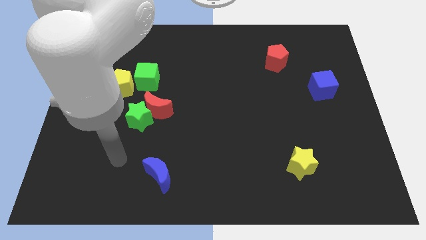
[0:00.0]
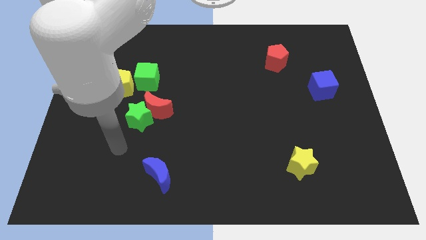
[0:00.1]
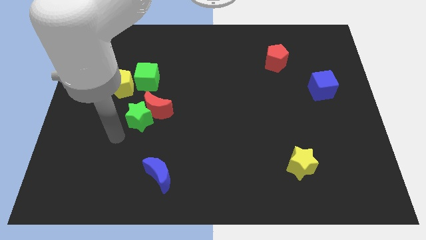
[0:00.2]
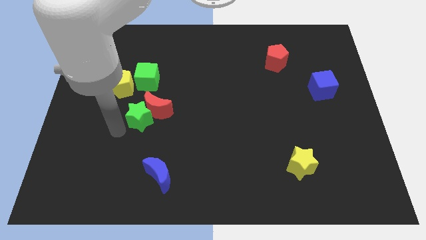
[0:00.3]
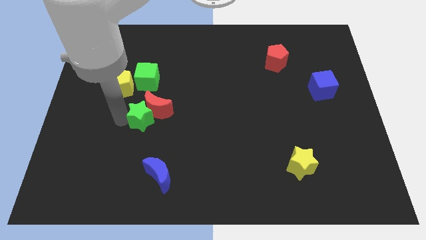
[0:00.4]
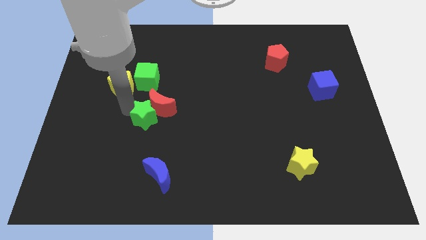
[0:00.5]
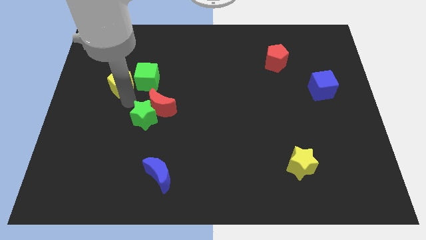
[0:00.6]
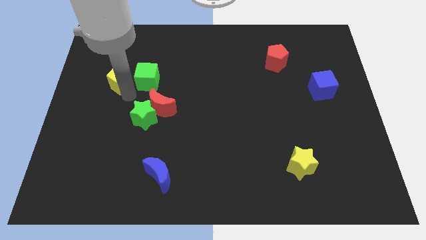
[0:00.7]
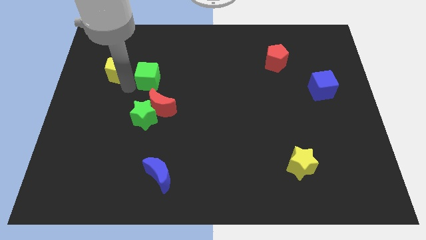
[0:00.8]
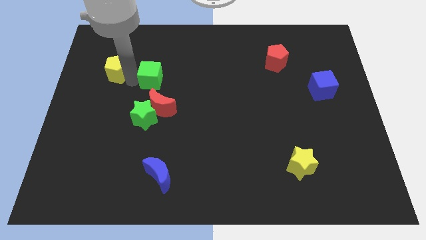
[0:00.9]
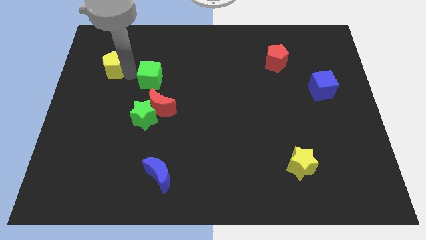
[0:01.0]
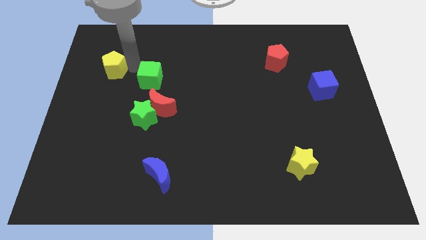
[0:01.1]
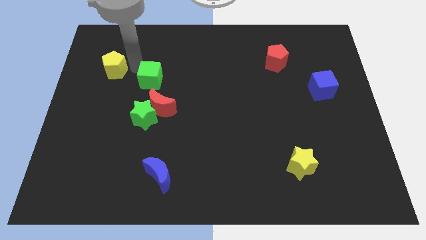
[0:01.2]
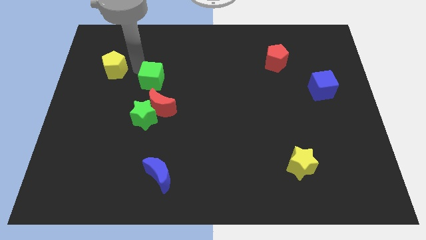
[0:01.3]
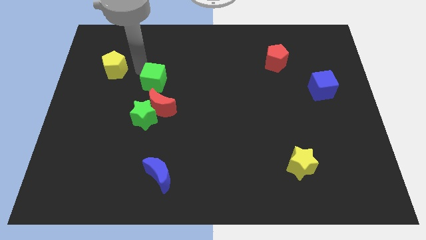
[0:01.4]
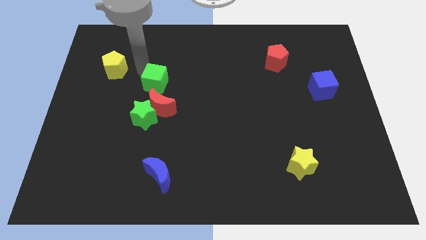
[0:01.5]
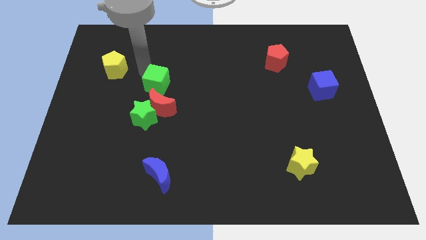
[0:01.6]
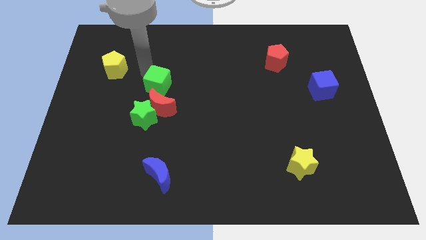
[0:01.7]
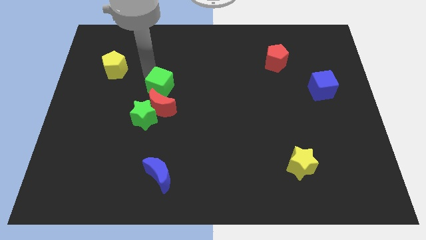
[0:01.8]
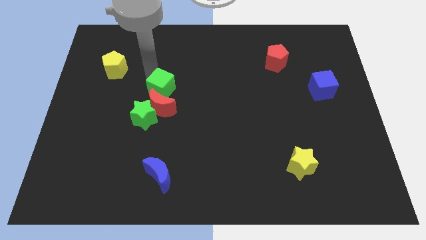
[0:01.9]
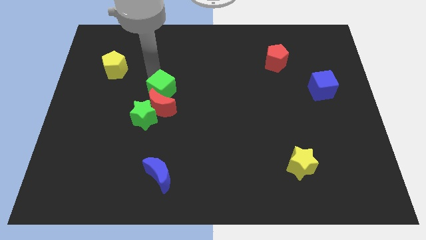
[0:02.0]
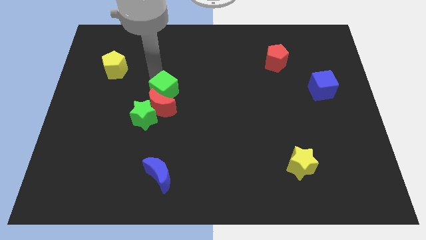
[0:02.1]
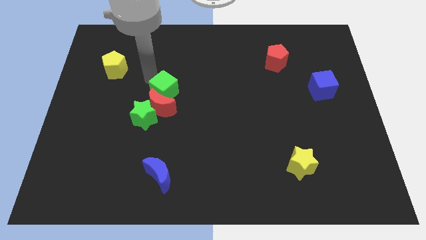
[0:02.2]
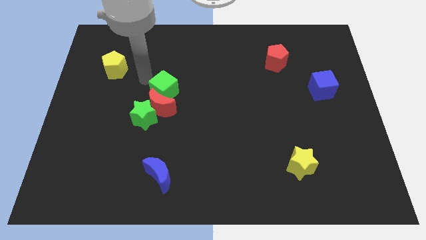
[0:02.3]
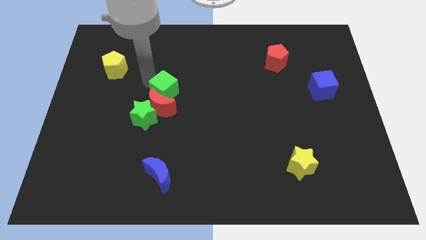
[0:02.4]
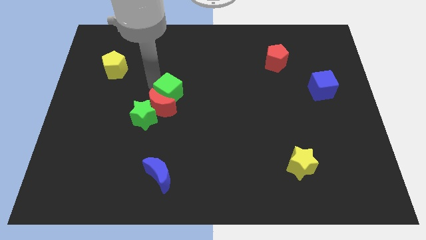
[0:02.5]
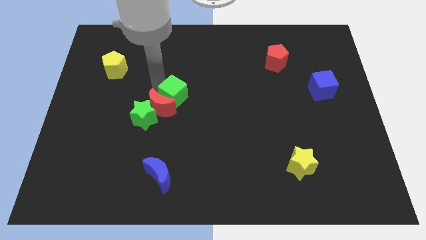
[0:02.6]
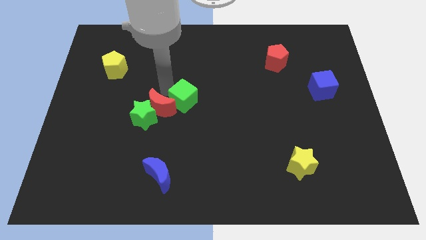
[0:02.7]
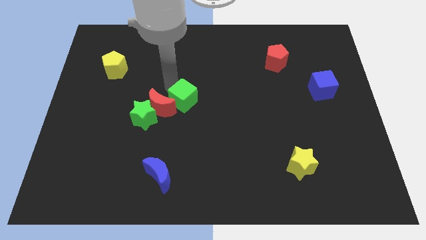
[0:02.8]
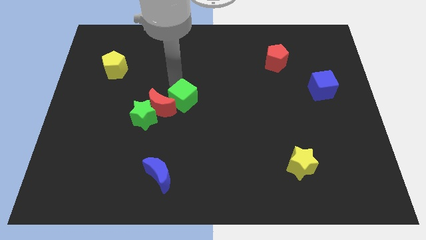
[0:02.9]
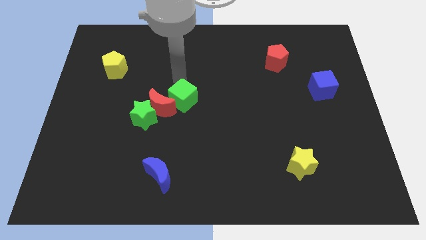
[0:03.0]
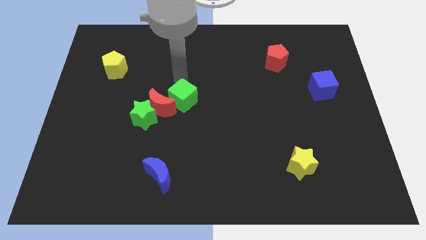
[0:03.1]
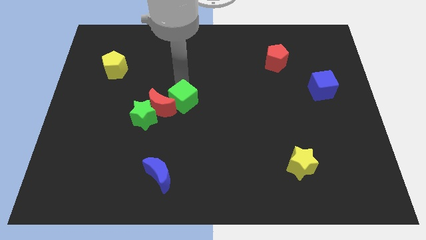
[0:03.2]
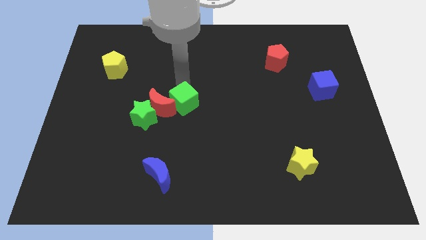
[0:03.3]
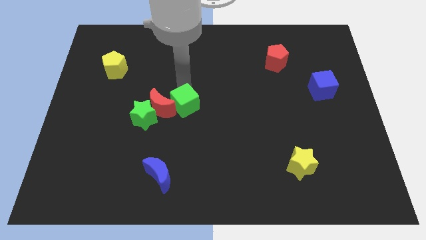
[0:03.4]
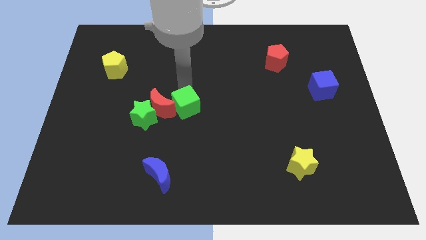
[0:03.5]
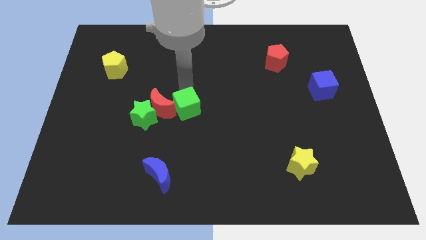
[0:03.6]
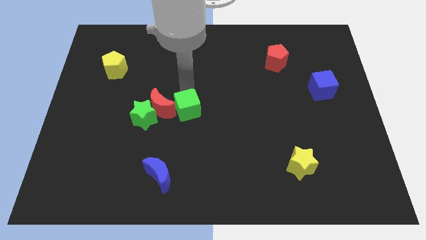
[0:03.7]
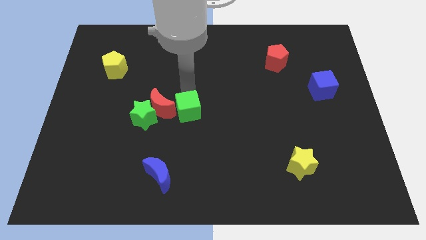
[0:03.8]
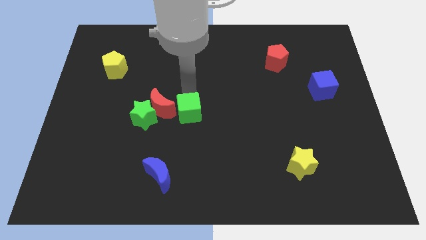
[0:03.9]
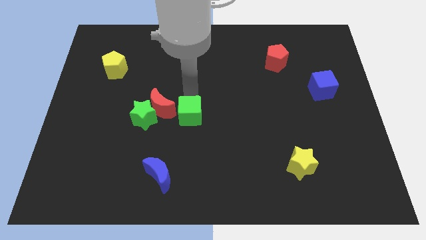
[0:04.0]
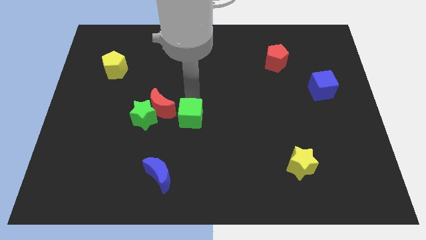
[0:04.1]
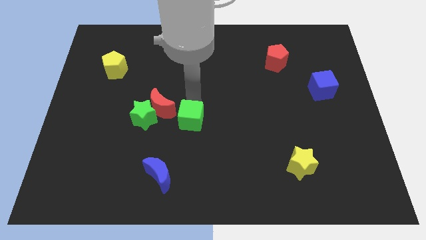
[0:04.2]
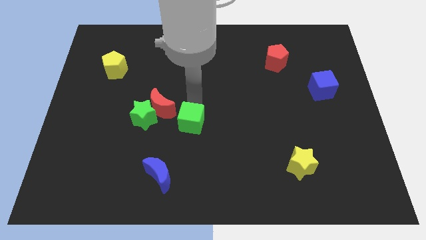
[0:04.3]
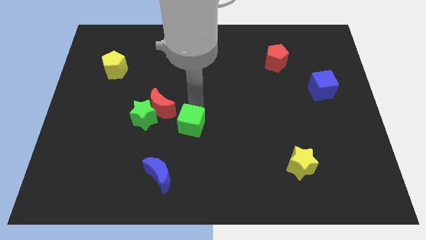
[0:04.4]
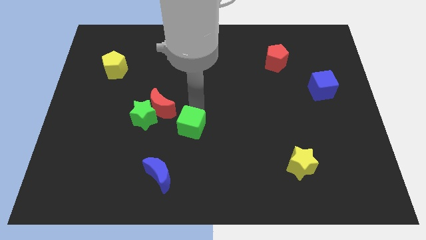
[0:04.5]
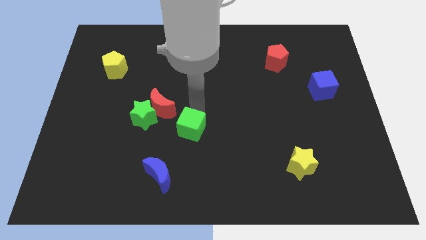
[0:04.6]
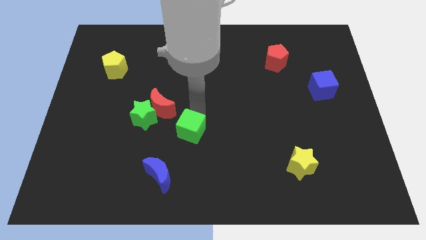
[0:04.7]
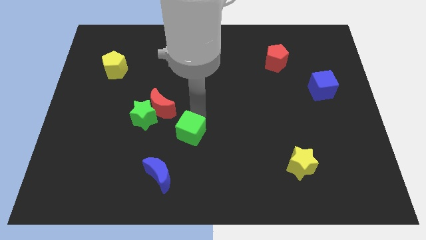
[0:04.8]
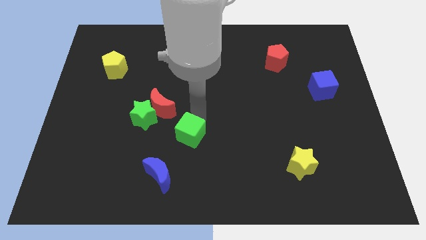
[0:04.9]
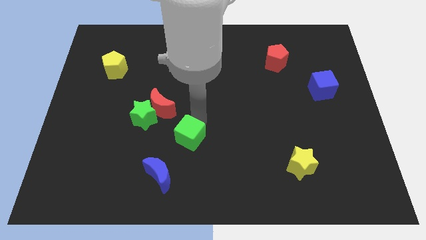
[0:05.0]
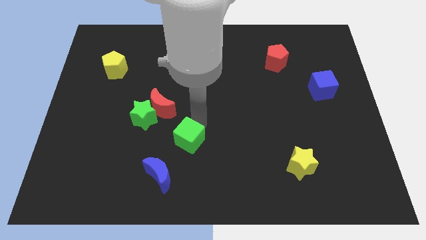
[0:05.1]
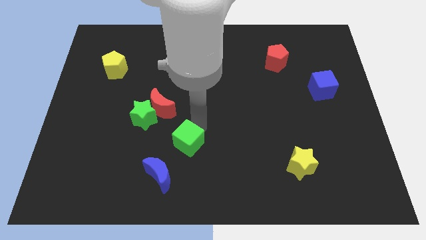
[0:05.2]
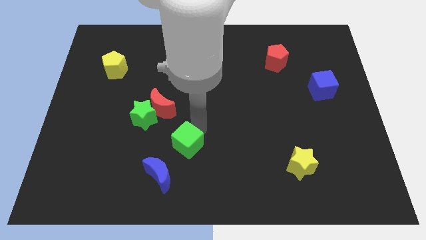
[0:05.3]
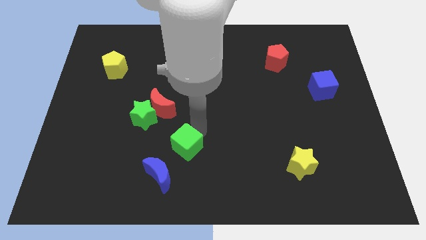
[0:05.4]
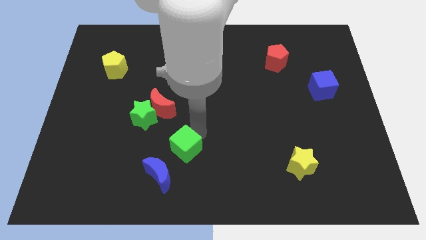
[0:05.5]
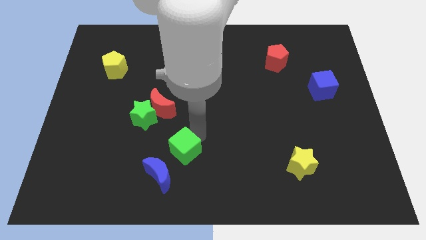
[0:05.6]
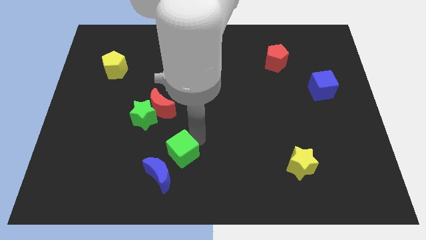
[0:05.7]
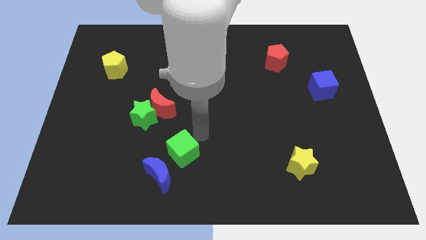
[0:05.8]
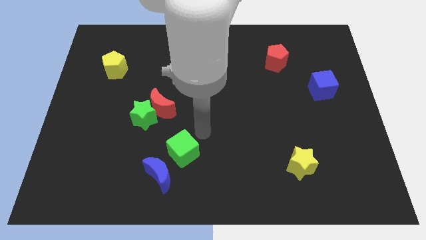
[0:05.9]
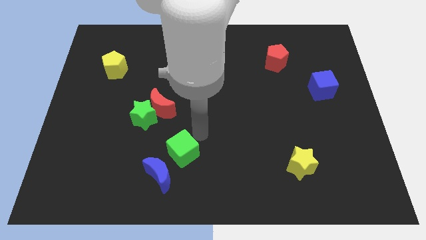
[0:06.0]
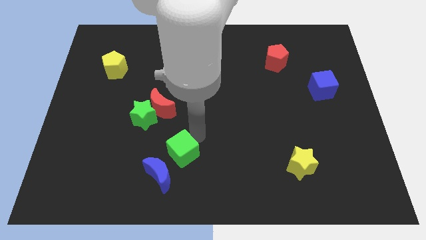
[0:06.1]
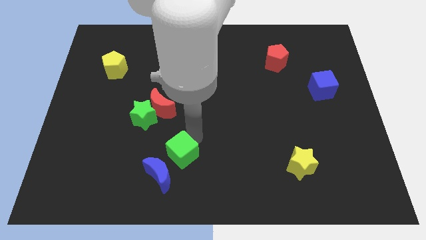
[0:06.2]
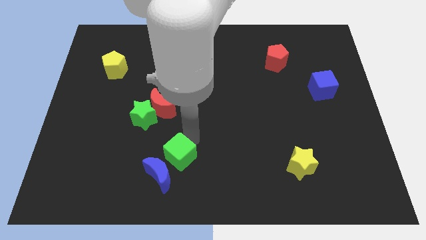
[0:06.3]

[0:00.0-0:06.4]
move the green cube next to the blue moon

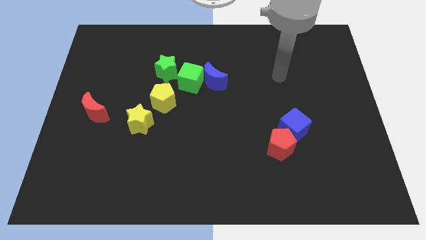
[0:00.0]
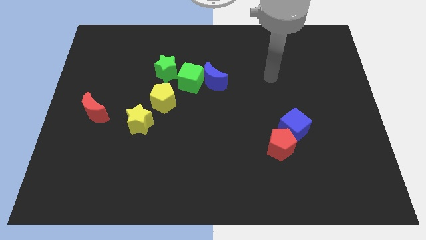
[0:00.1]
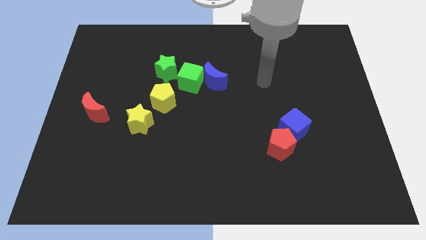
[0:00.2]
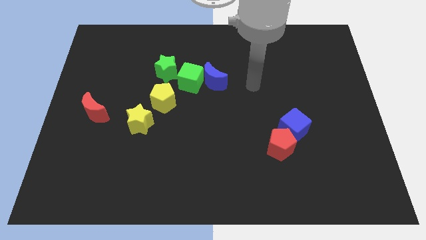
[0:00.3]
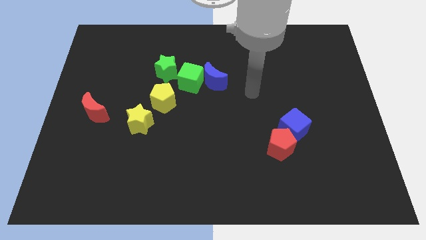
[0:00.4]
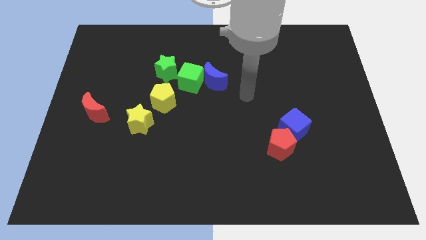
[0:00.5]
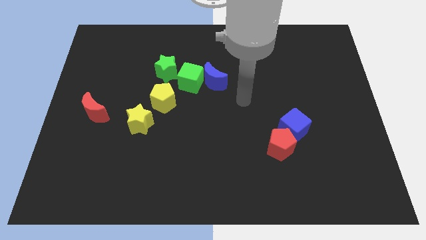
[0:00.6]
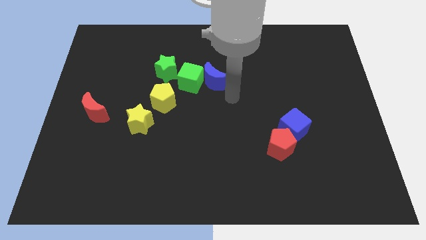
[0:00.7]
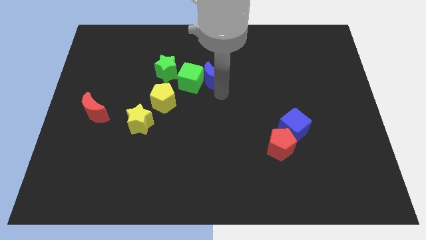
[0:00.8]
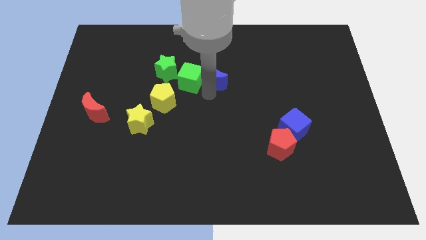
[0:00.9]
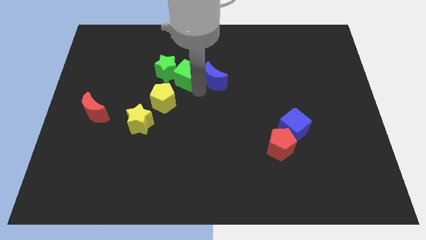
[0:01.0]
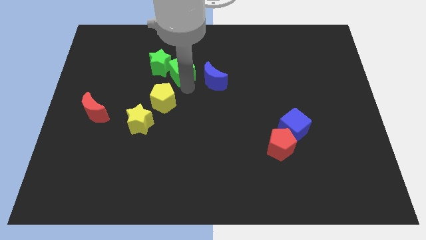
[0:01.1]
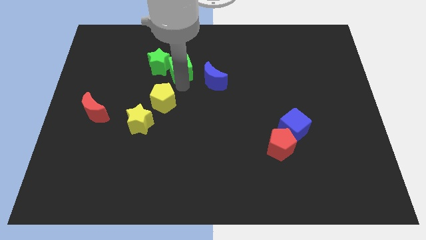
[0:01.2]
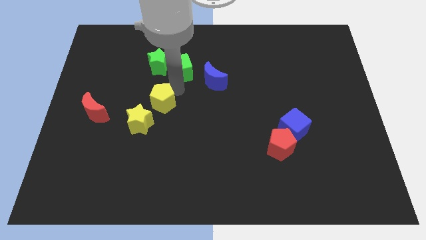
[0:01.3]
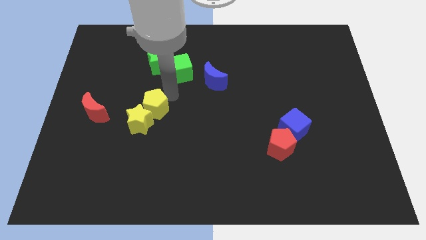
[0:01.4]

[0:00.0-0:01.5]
move the yellow pentagon next to the yellow star
